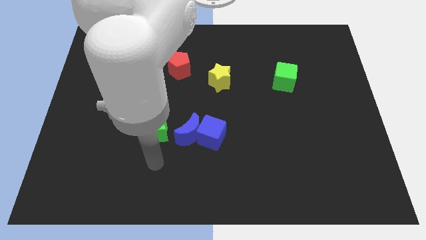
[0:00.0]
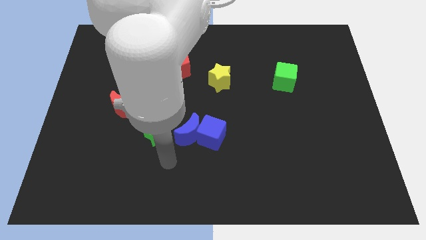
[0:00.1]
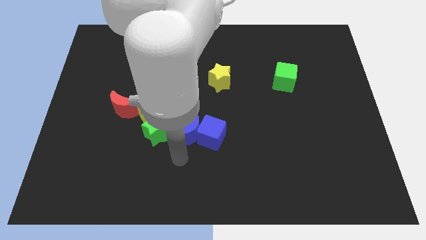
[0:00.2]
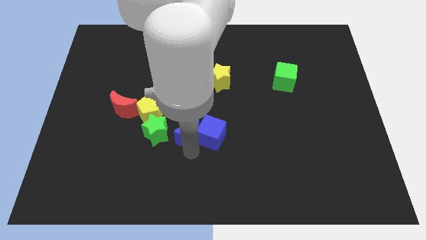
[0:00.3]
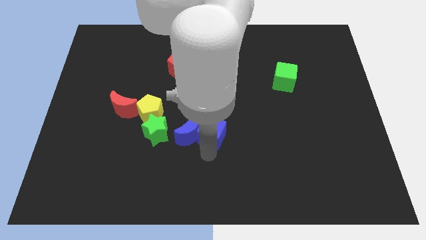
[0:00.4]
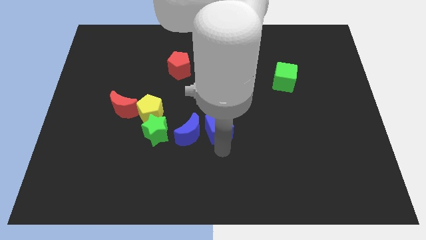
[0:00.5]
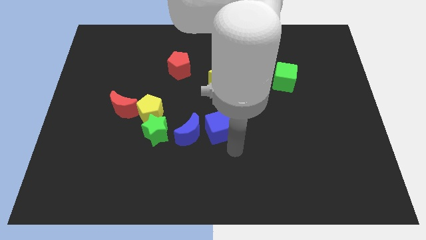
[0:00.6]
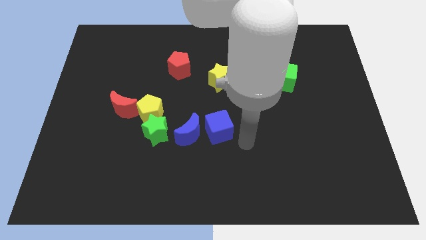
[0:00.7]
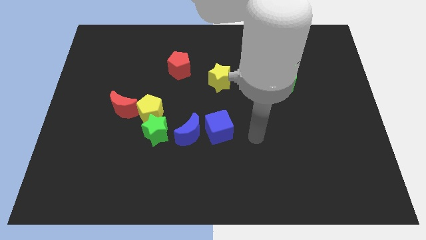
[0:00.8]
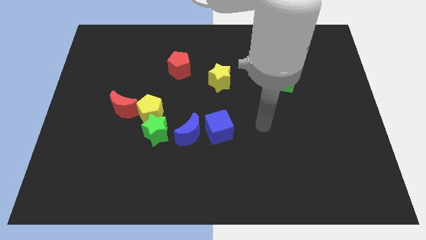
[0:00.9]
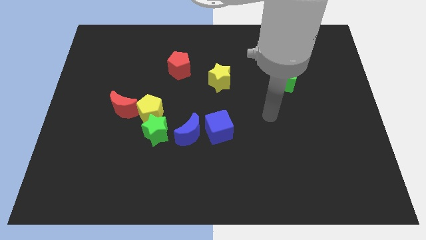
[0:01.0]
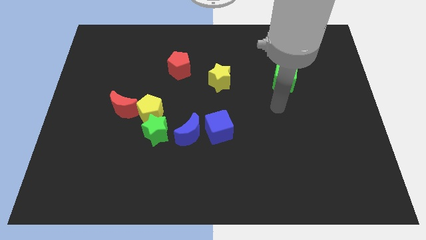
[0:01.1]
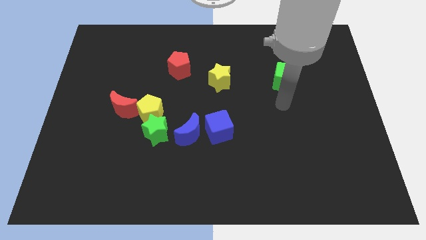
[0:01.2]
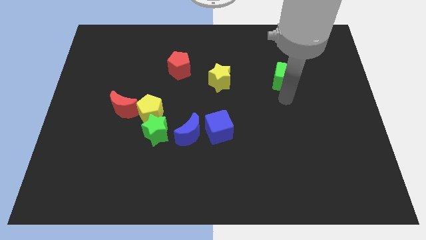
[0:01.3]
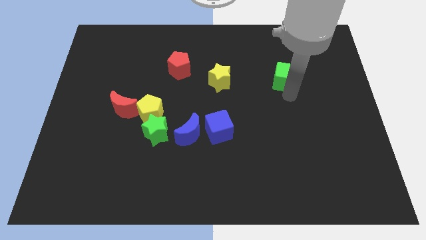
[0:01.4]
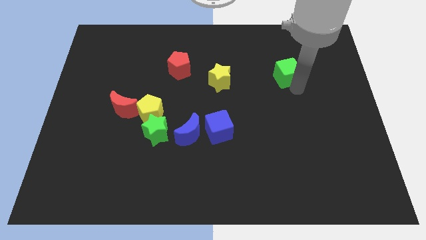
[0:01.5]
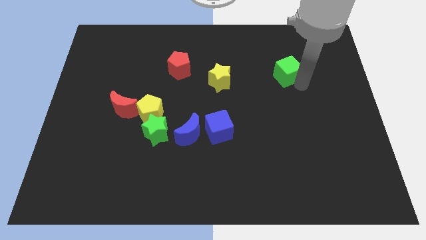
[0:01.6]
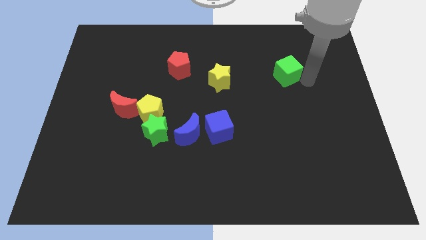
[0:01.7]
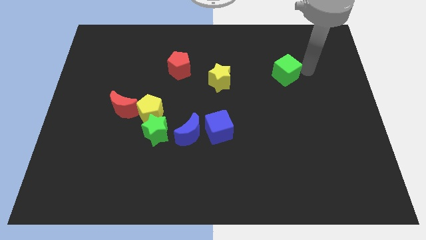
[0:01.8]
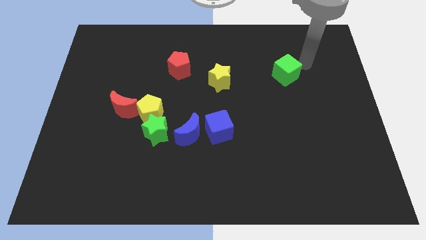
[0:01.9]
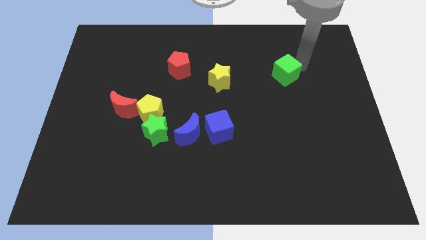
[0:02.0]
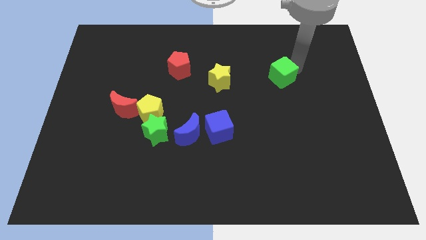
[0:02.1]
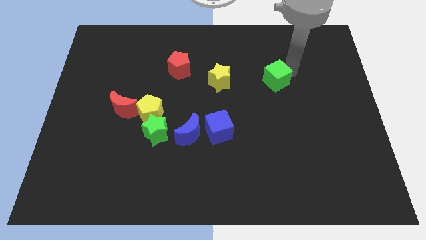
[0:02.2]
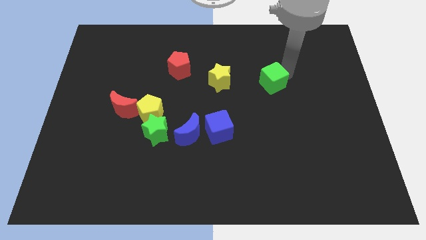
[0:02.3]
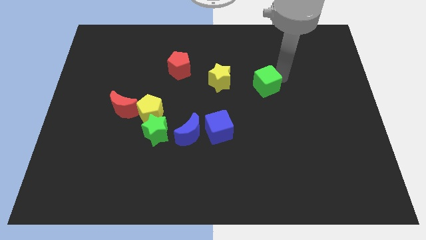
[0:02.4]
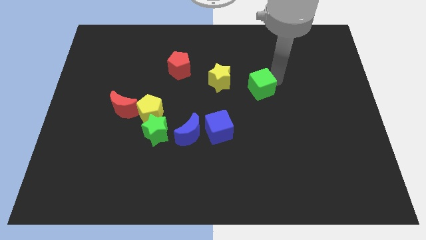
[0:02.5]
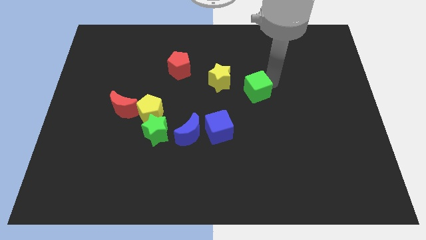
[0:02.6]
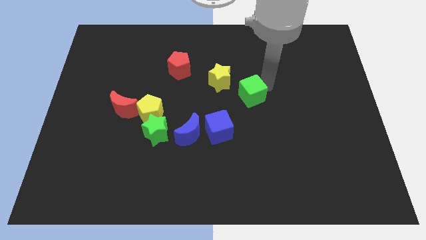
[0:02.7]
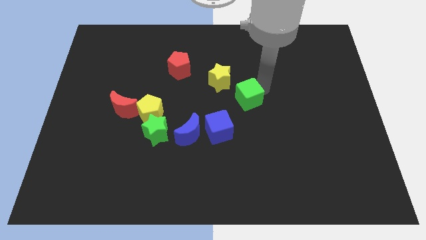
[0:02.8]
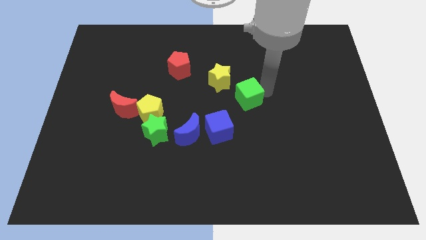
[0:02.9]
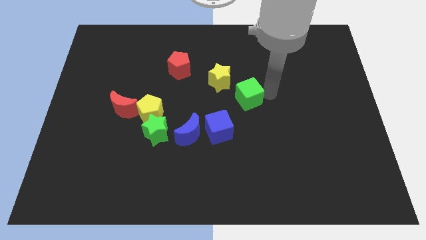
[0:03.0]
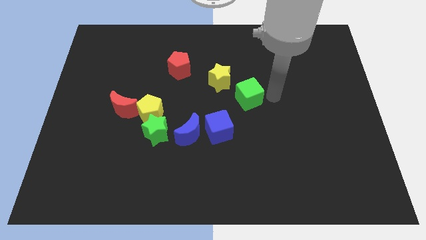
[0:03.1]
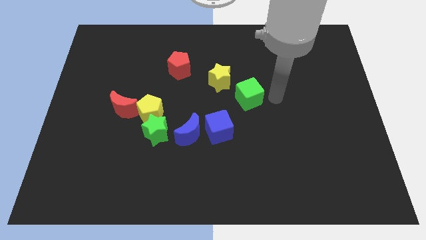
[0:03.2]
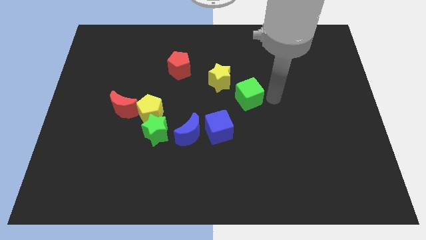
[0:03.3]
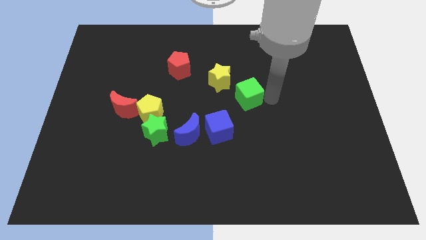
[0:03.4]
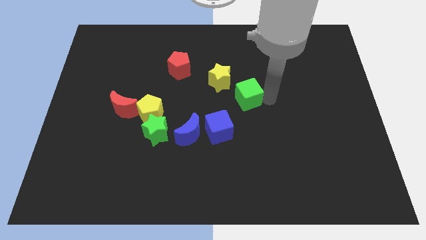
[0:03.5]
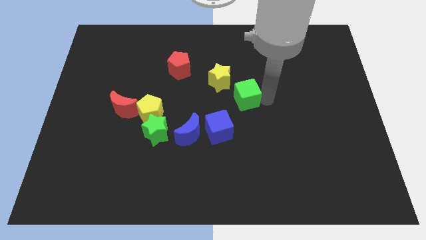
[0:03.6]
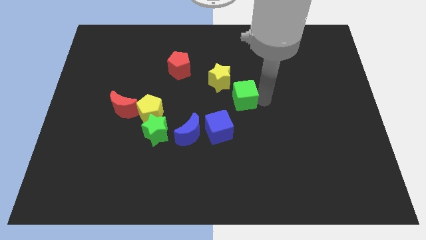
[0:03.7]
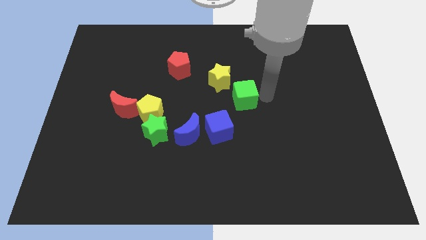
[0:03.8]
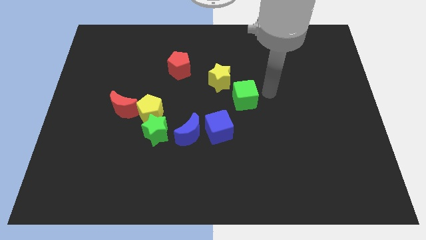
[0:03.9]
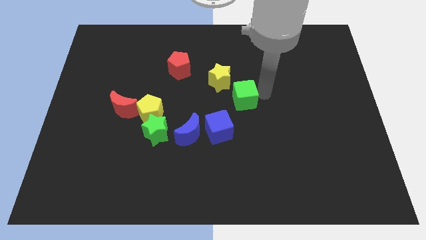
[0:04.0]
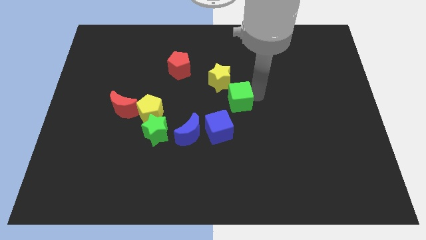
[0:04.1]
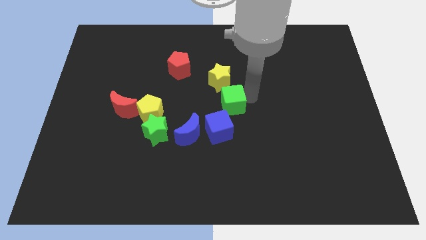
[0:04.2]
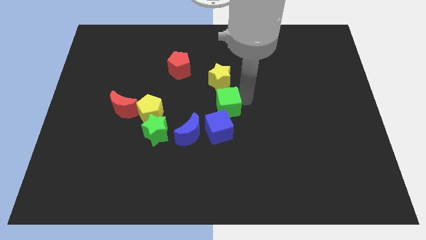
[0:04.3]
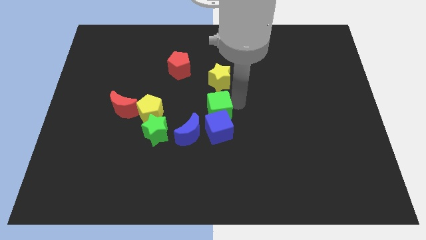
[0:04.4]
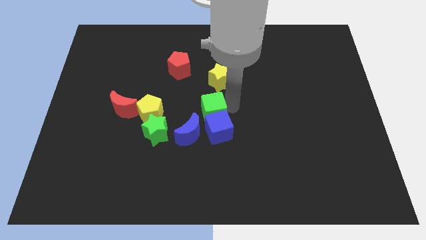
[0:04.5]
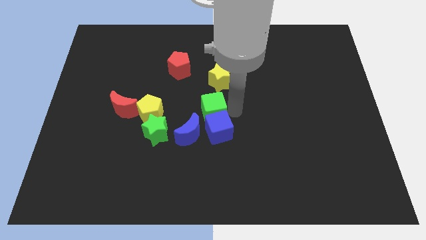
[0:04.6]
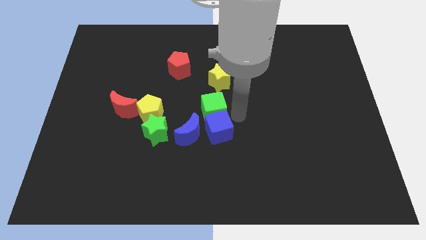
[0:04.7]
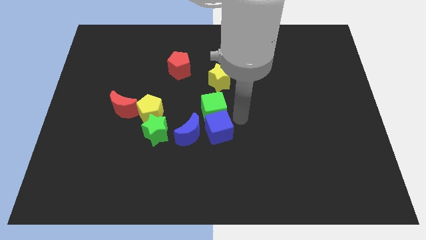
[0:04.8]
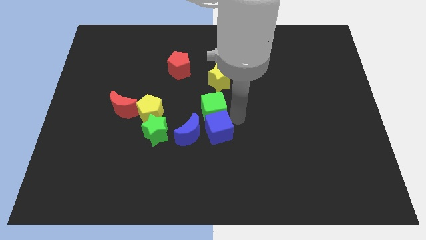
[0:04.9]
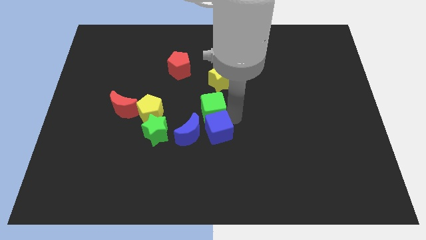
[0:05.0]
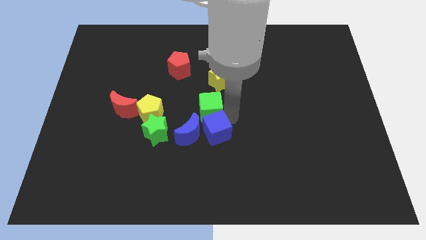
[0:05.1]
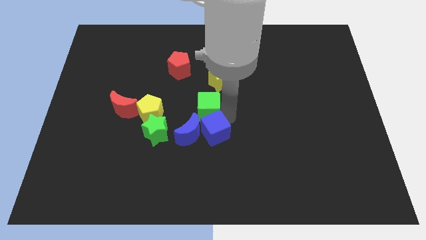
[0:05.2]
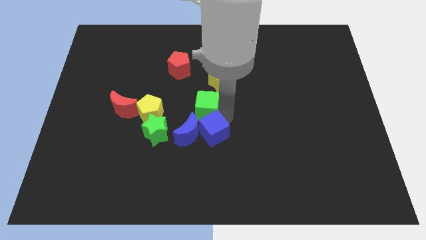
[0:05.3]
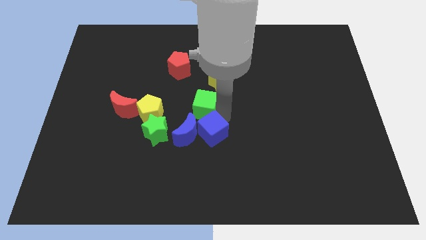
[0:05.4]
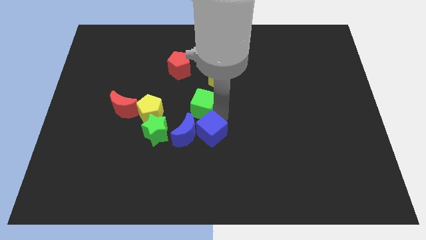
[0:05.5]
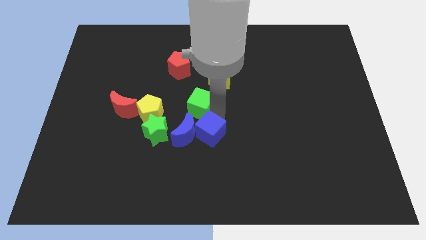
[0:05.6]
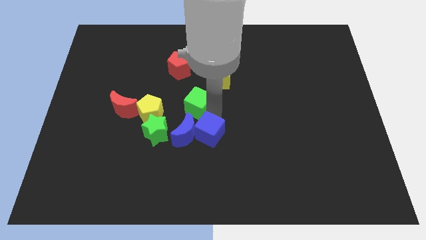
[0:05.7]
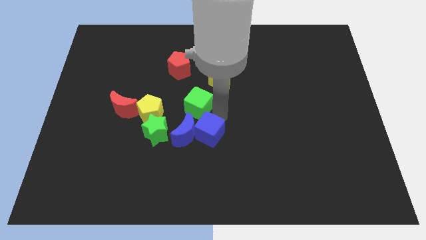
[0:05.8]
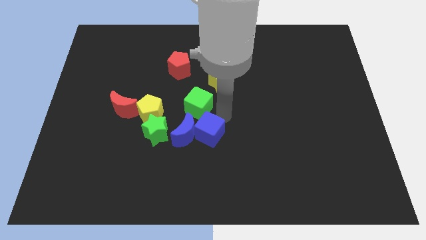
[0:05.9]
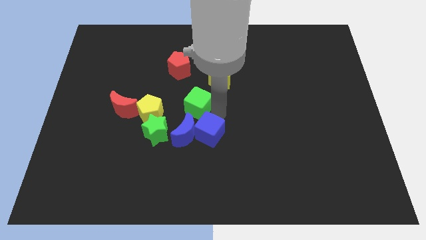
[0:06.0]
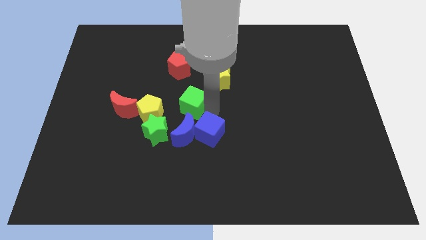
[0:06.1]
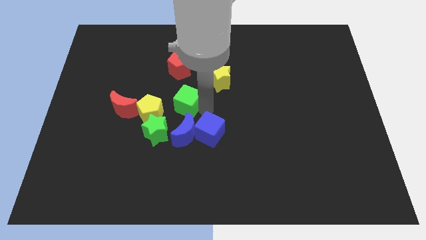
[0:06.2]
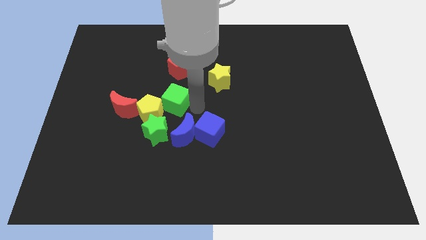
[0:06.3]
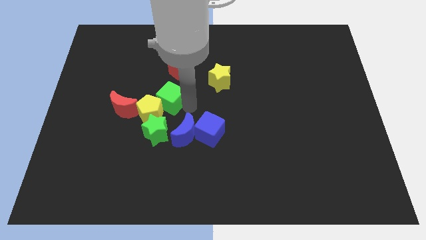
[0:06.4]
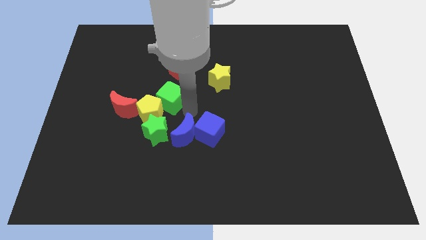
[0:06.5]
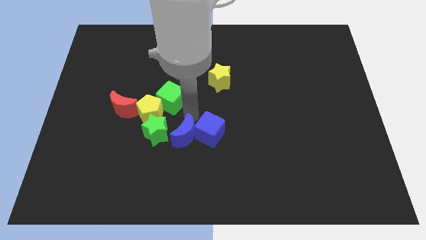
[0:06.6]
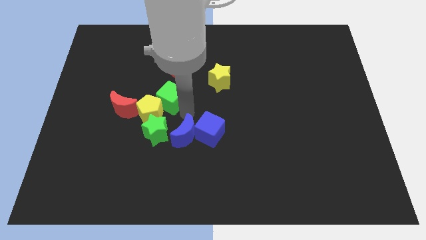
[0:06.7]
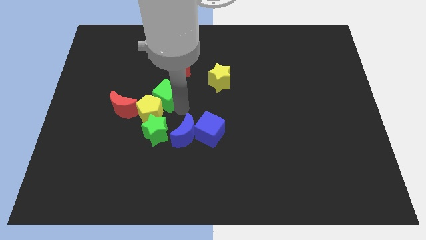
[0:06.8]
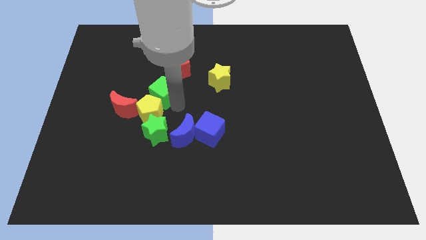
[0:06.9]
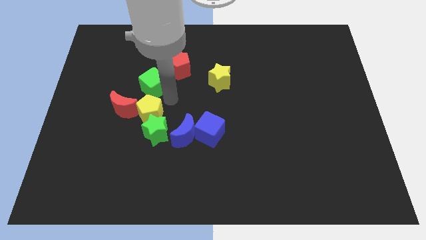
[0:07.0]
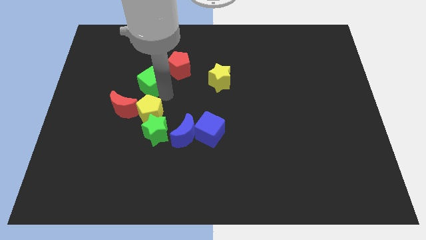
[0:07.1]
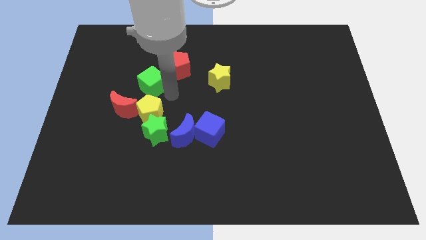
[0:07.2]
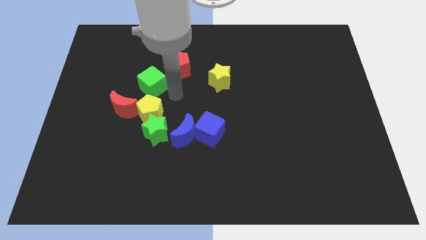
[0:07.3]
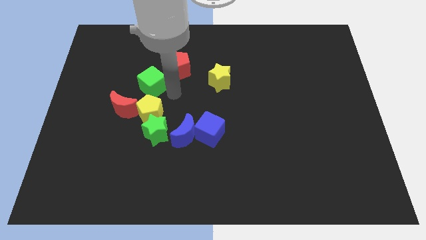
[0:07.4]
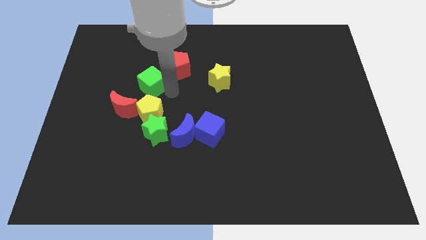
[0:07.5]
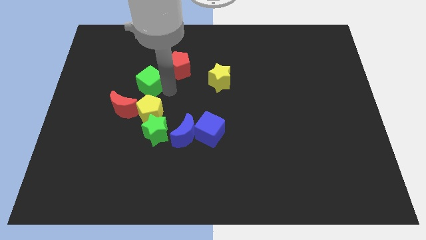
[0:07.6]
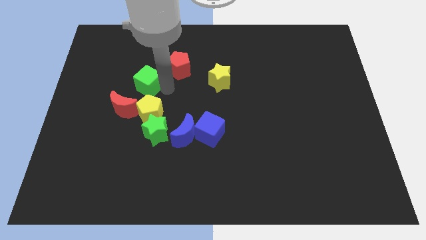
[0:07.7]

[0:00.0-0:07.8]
put the green cube to the top side of the red moon

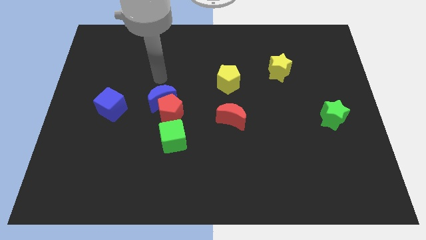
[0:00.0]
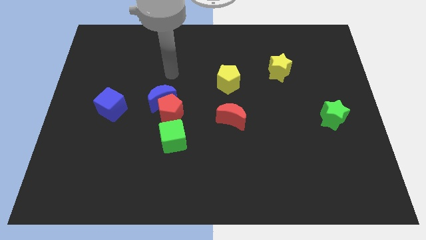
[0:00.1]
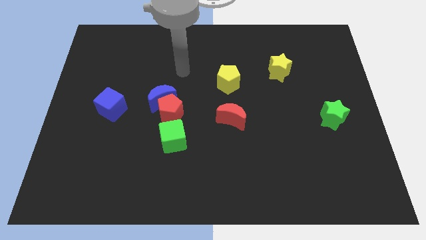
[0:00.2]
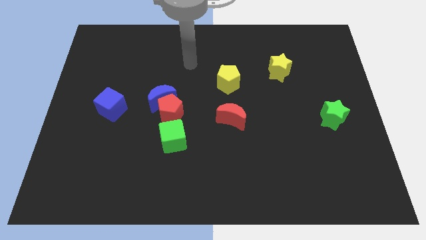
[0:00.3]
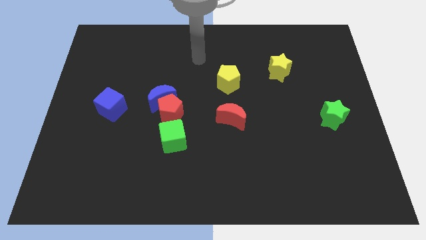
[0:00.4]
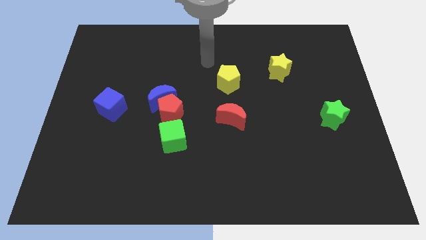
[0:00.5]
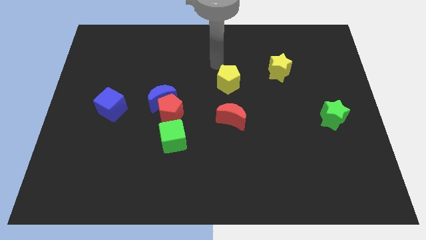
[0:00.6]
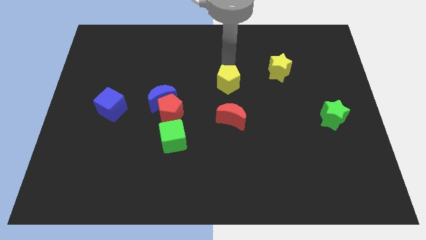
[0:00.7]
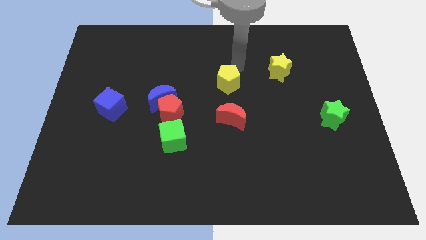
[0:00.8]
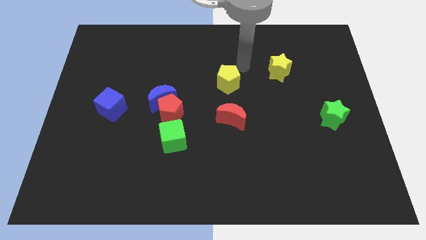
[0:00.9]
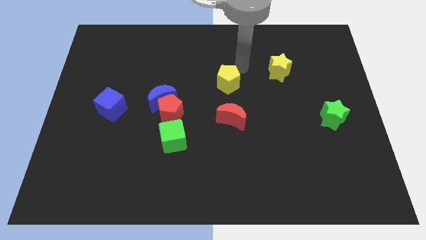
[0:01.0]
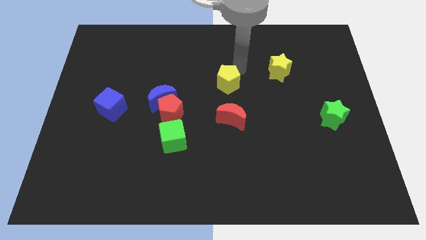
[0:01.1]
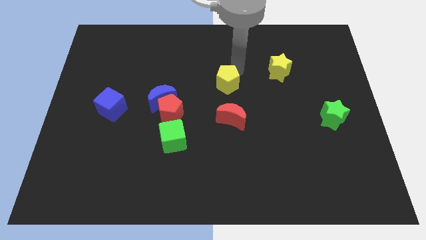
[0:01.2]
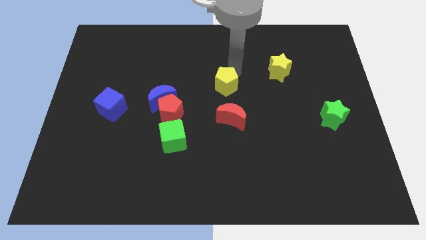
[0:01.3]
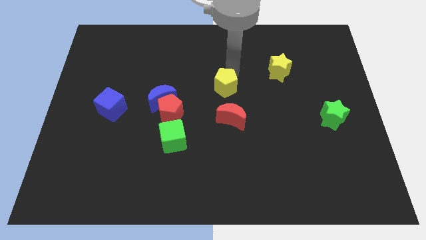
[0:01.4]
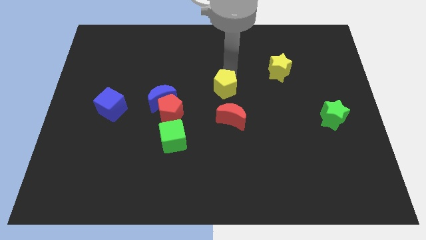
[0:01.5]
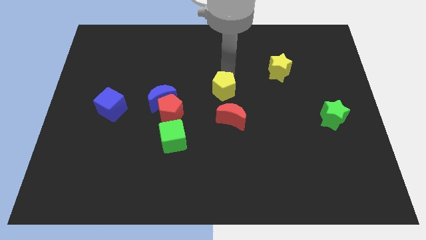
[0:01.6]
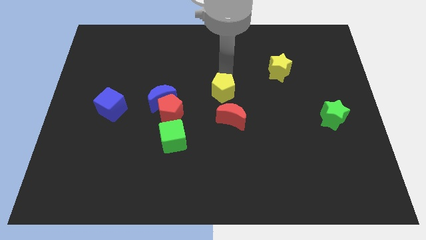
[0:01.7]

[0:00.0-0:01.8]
slide the yellow pentagon diagonally up and to the left of the red moon
